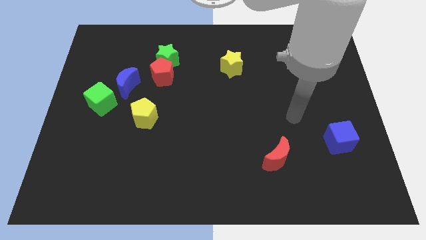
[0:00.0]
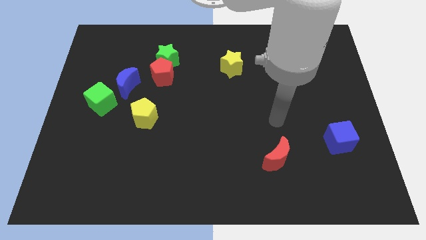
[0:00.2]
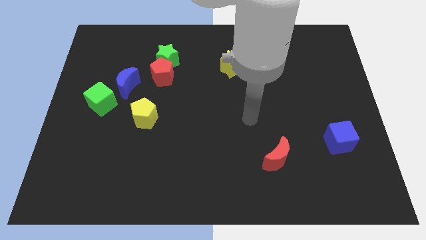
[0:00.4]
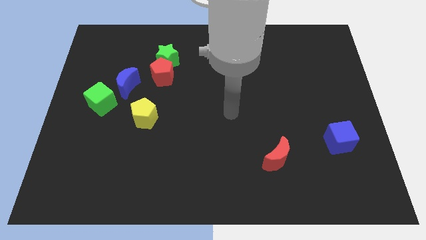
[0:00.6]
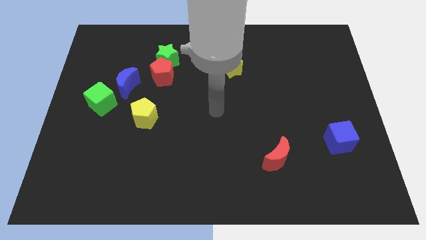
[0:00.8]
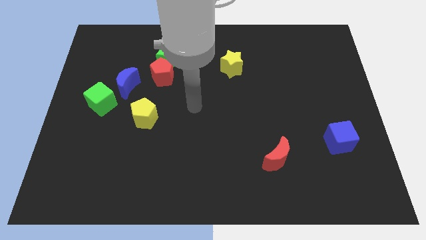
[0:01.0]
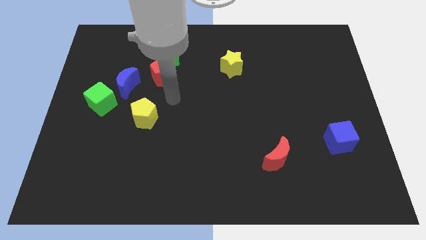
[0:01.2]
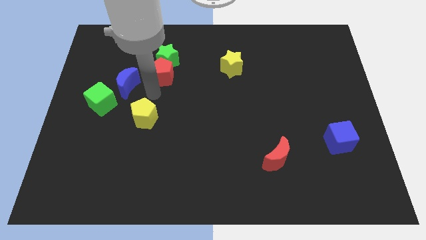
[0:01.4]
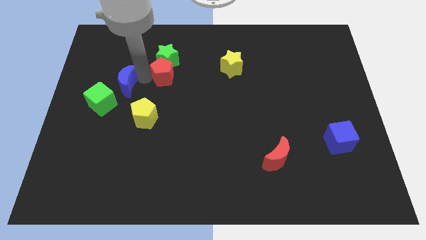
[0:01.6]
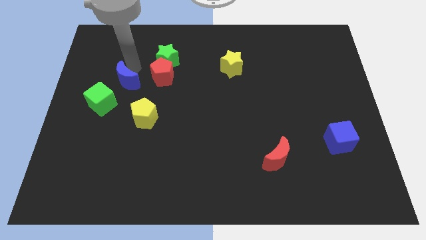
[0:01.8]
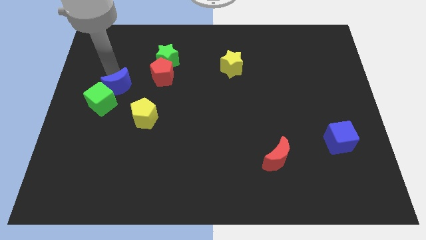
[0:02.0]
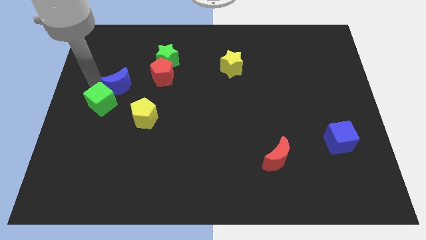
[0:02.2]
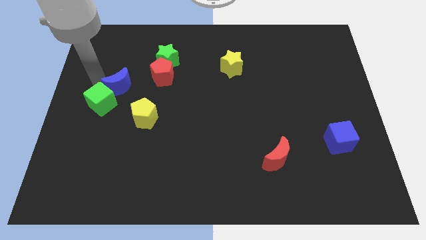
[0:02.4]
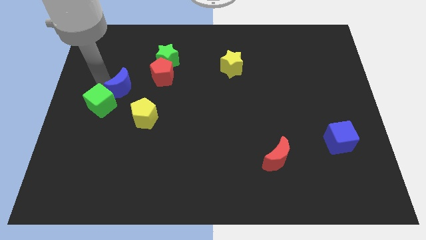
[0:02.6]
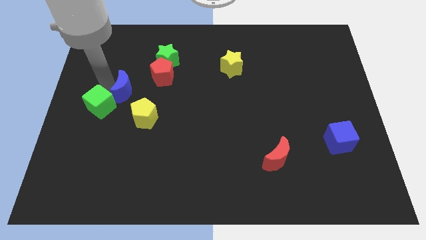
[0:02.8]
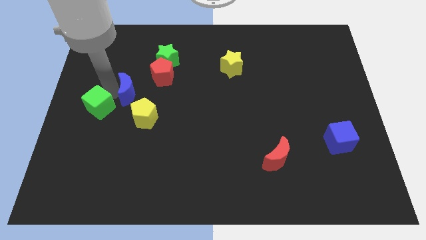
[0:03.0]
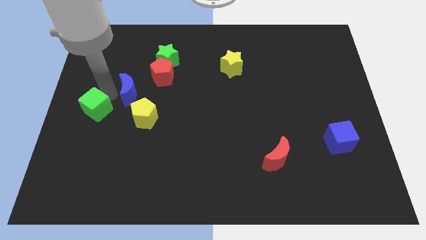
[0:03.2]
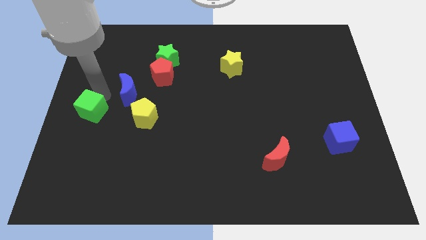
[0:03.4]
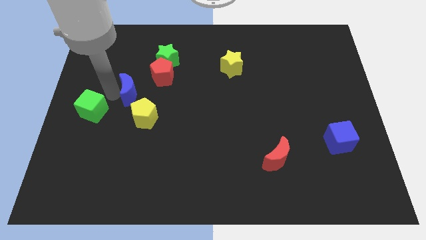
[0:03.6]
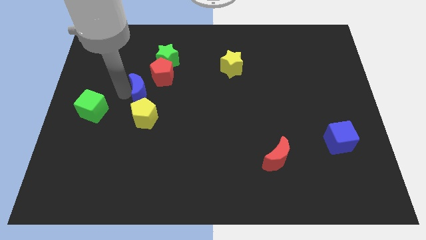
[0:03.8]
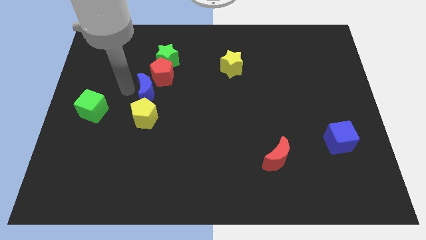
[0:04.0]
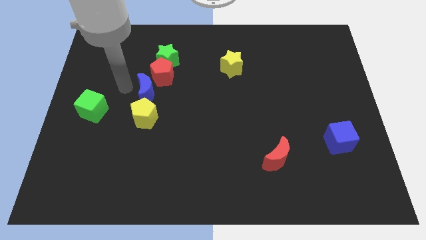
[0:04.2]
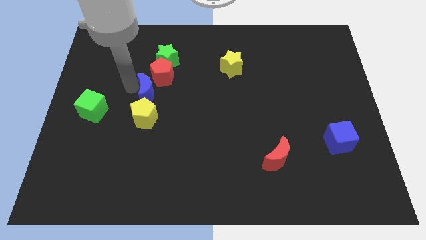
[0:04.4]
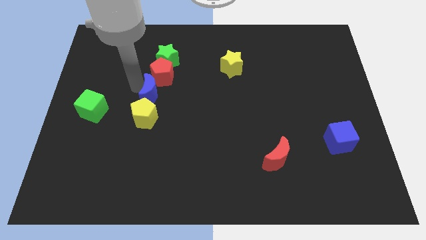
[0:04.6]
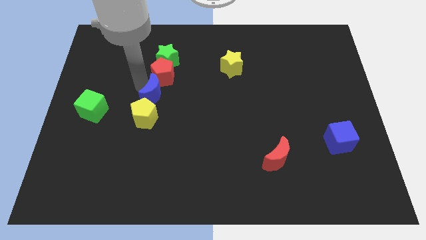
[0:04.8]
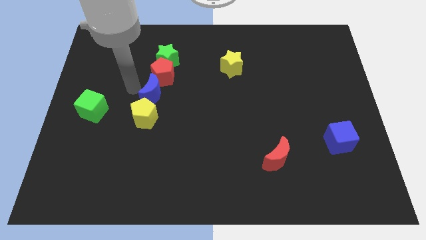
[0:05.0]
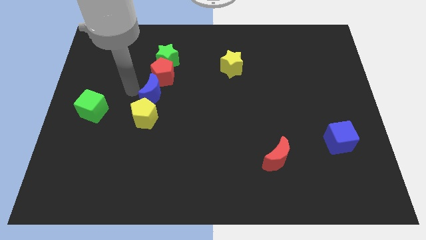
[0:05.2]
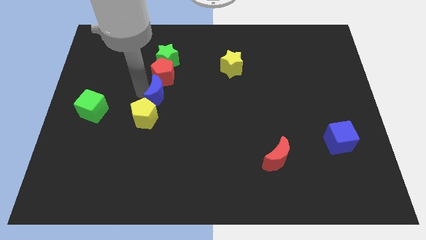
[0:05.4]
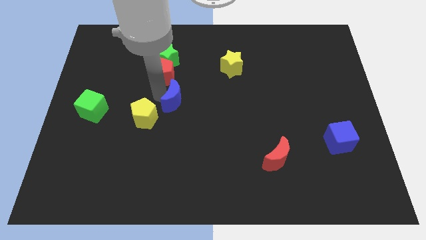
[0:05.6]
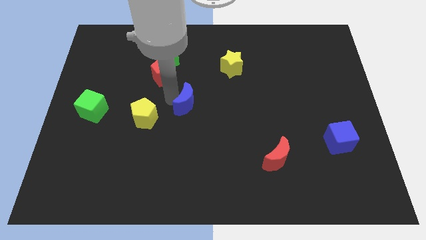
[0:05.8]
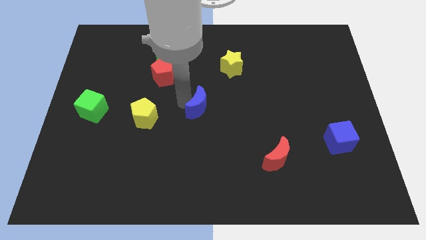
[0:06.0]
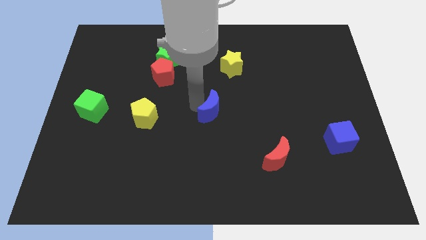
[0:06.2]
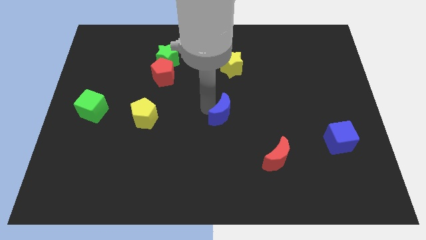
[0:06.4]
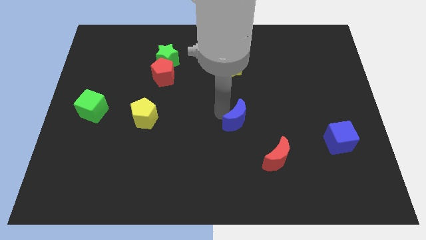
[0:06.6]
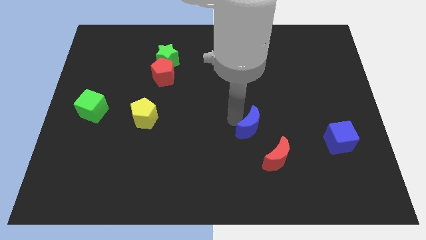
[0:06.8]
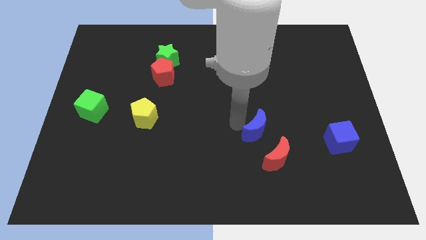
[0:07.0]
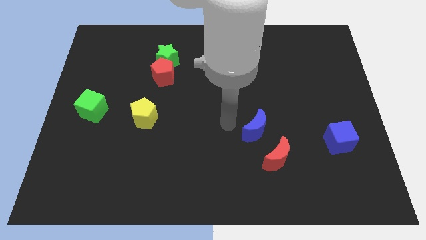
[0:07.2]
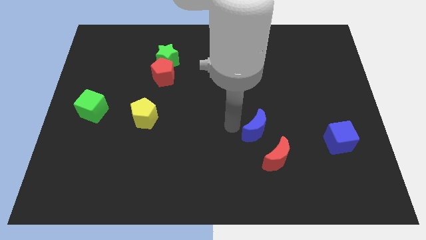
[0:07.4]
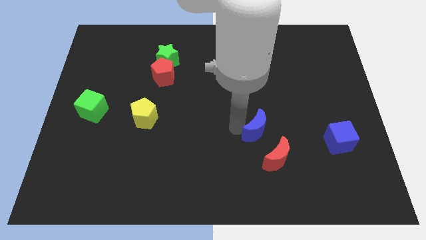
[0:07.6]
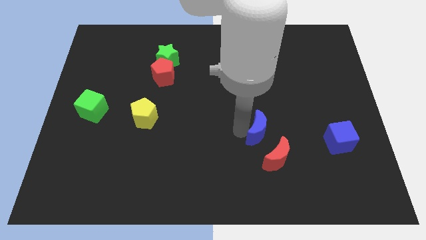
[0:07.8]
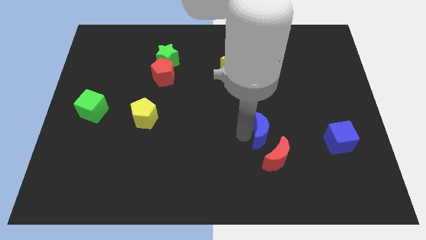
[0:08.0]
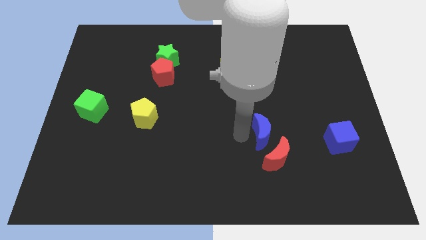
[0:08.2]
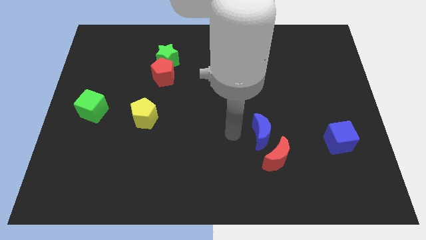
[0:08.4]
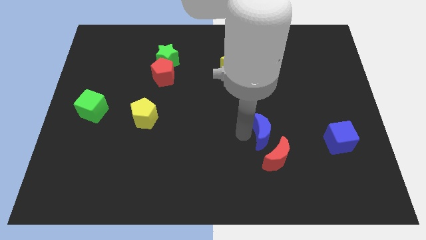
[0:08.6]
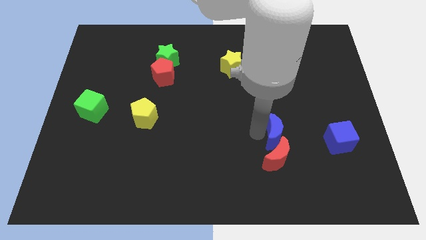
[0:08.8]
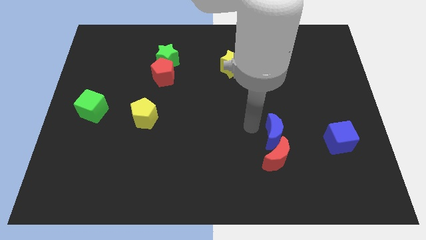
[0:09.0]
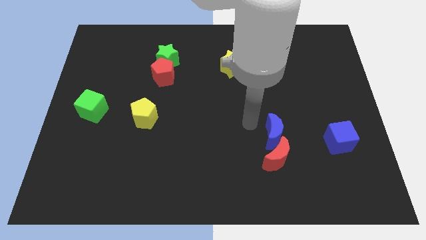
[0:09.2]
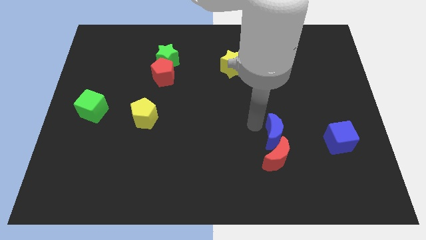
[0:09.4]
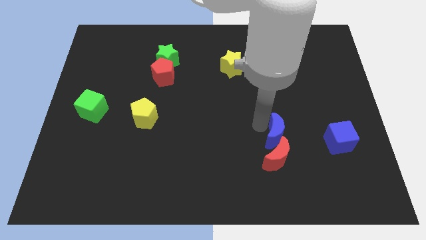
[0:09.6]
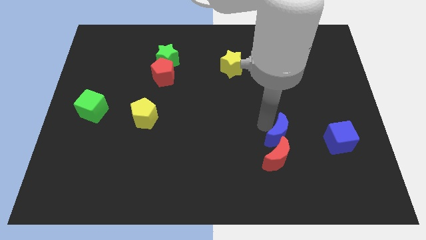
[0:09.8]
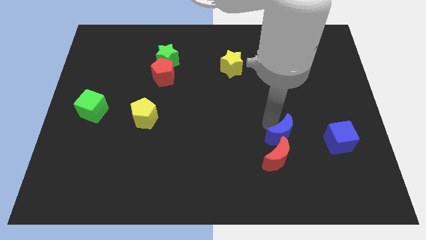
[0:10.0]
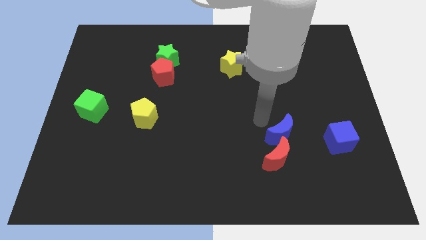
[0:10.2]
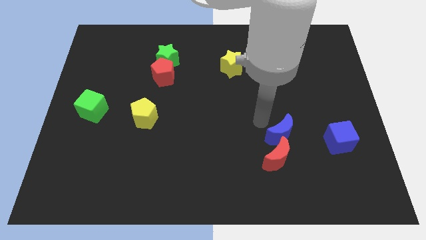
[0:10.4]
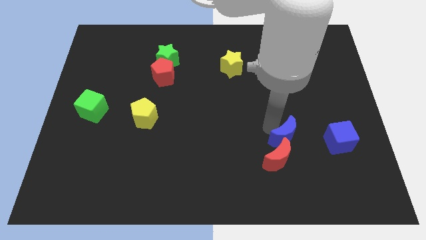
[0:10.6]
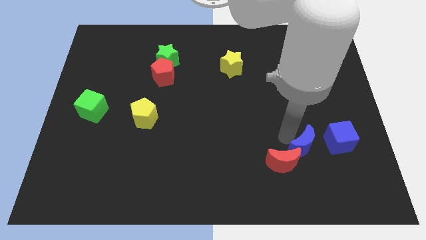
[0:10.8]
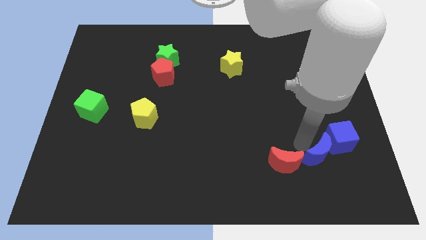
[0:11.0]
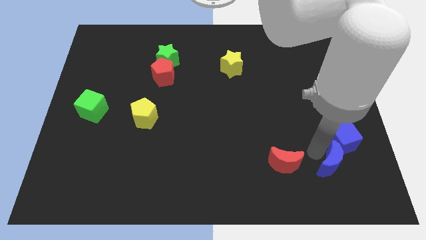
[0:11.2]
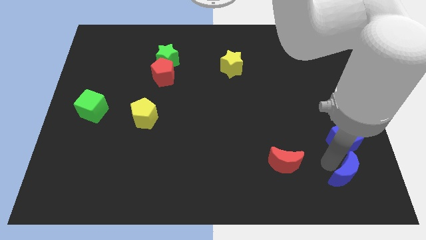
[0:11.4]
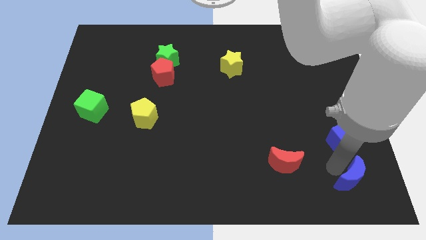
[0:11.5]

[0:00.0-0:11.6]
push the blue moon to the bottom right corner

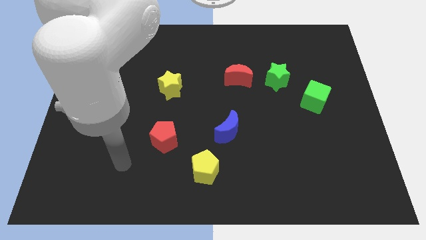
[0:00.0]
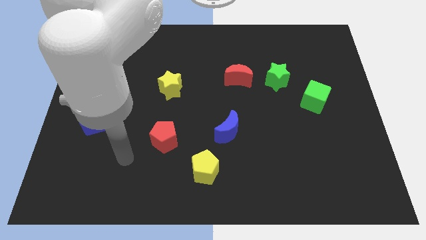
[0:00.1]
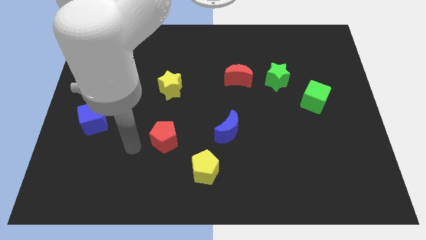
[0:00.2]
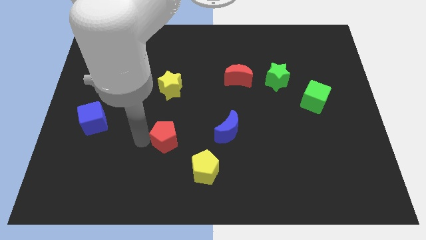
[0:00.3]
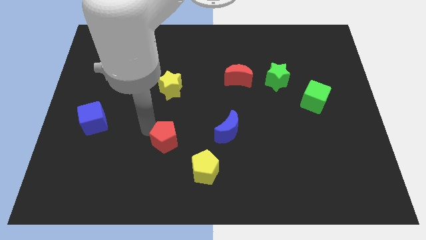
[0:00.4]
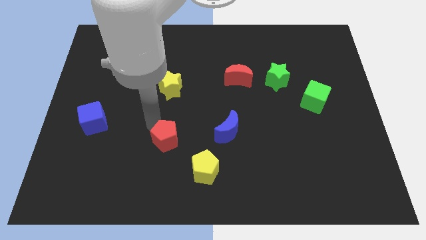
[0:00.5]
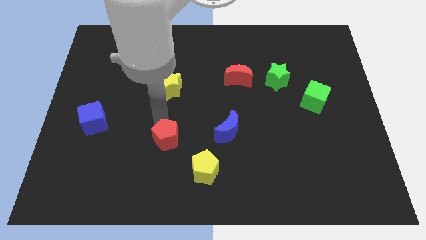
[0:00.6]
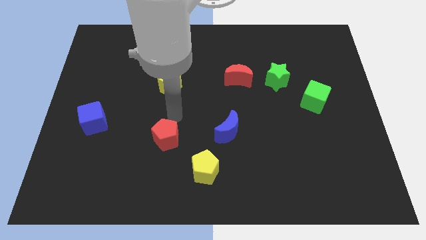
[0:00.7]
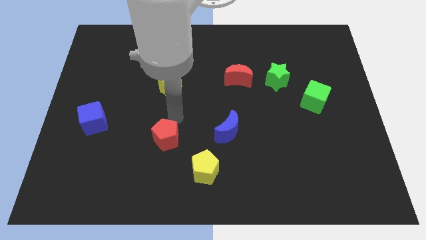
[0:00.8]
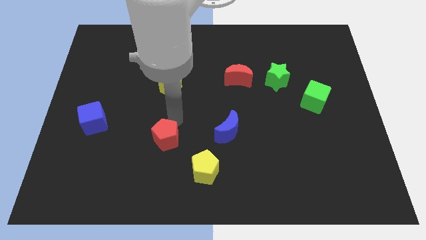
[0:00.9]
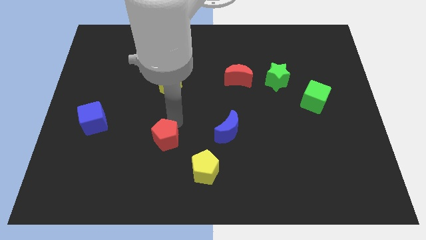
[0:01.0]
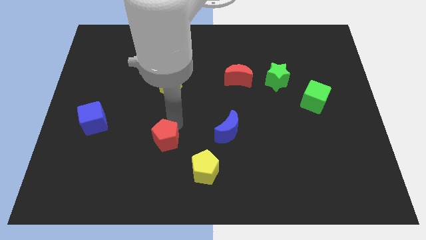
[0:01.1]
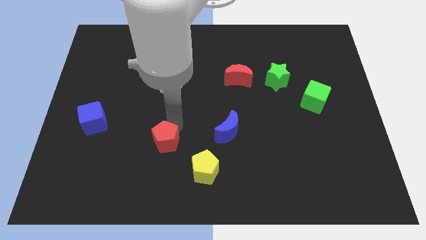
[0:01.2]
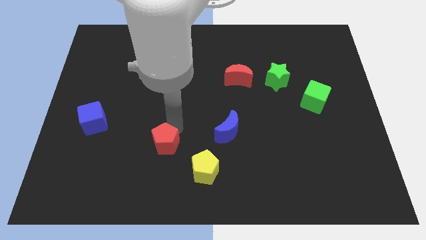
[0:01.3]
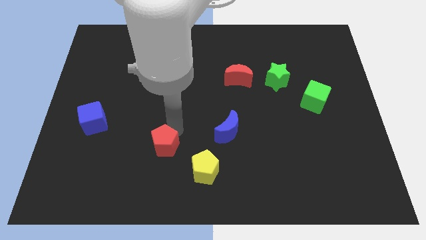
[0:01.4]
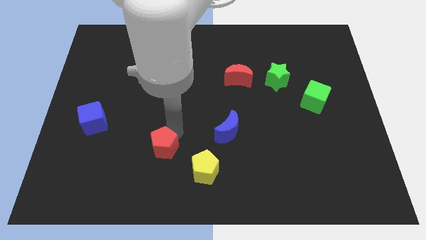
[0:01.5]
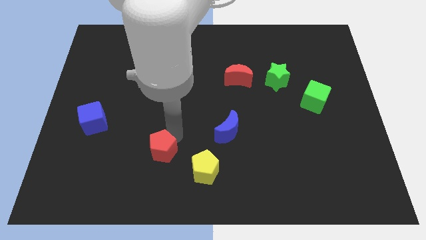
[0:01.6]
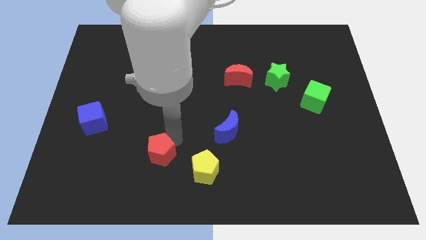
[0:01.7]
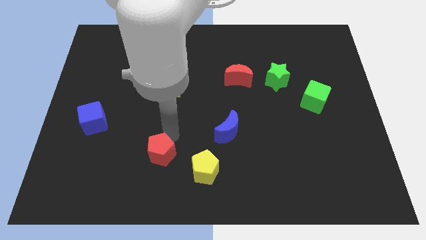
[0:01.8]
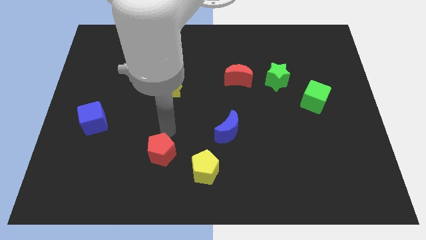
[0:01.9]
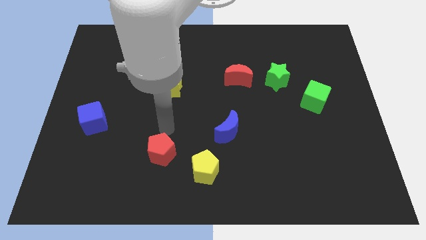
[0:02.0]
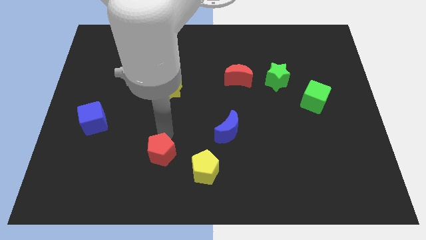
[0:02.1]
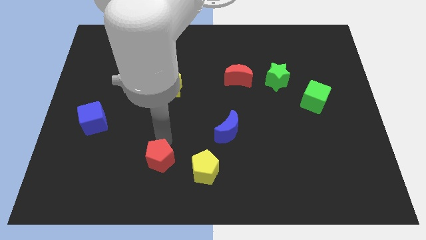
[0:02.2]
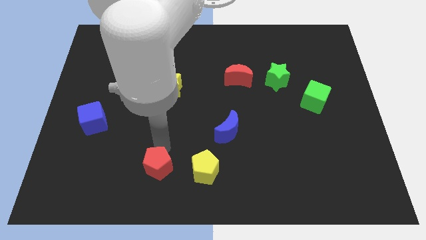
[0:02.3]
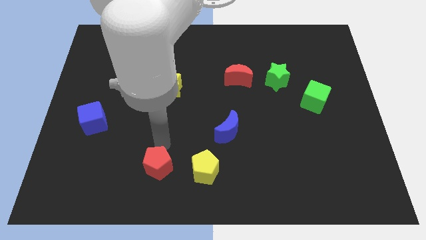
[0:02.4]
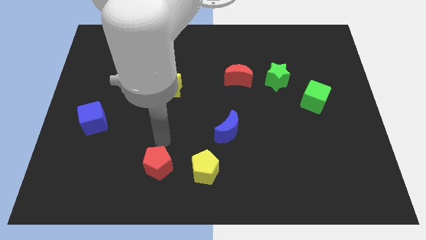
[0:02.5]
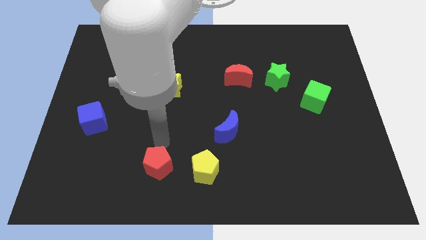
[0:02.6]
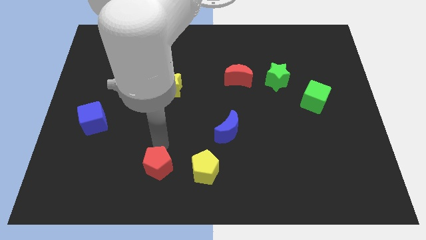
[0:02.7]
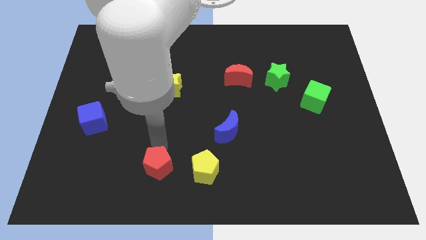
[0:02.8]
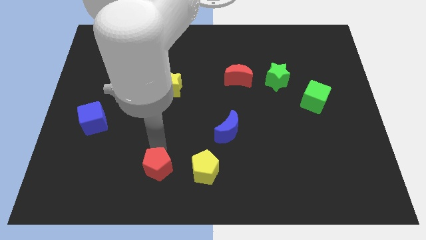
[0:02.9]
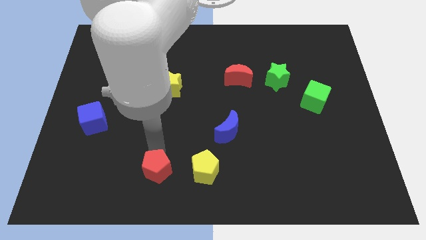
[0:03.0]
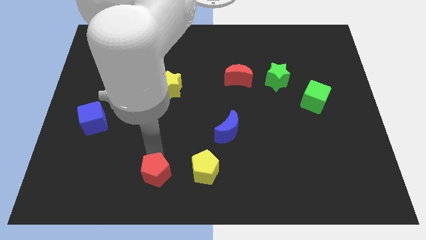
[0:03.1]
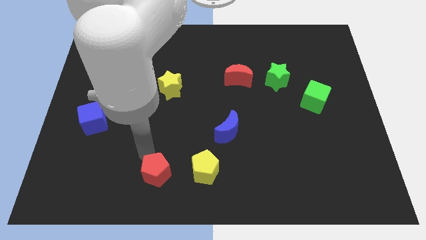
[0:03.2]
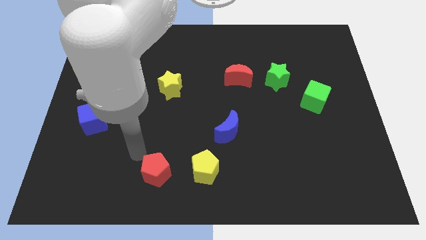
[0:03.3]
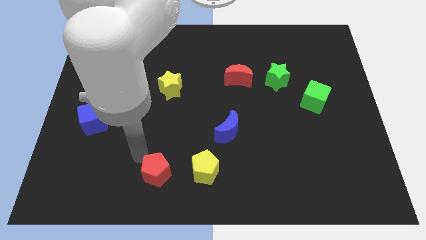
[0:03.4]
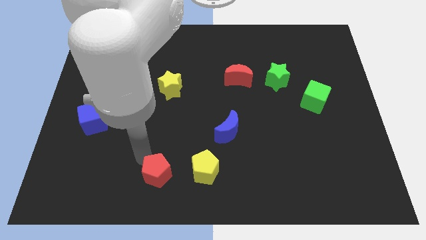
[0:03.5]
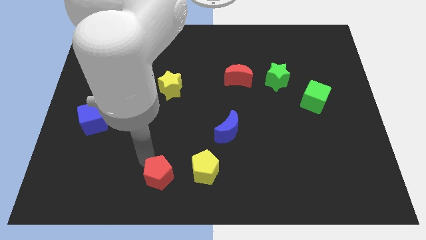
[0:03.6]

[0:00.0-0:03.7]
put the red pentagon to the bottom
